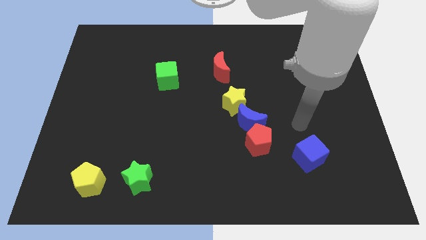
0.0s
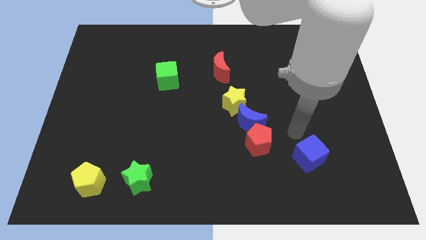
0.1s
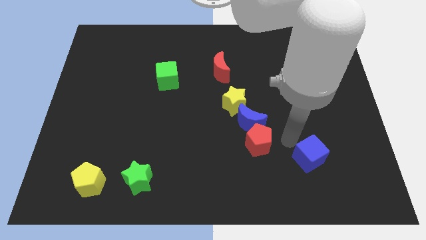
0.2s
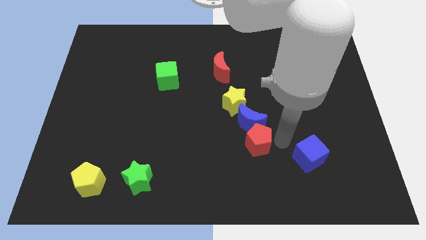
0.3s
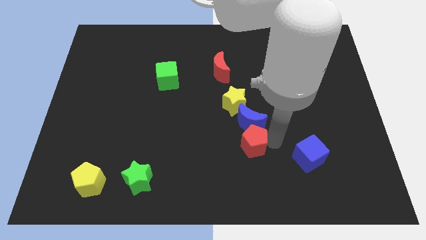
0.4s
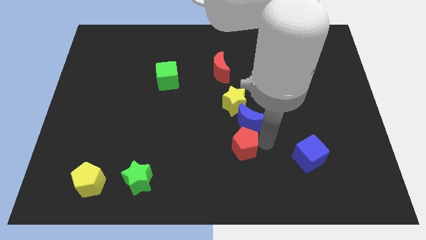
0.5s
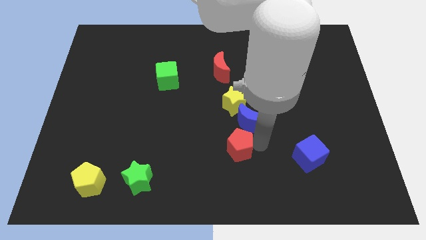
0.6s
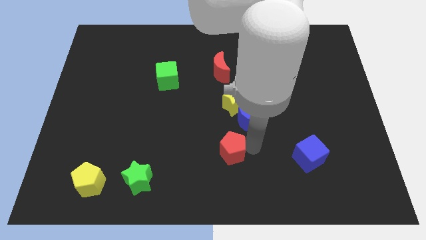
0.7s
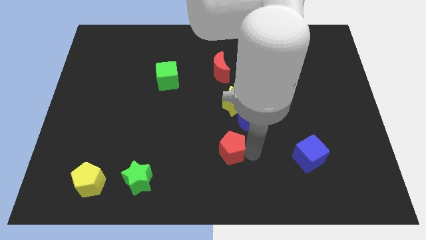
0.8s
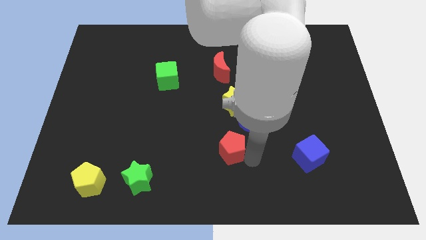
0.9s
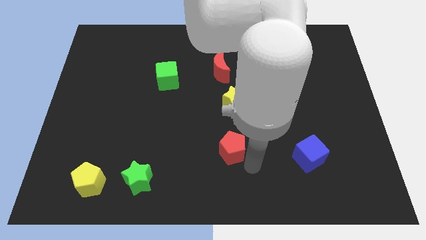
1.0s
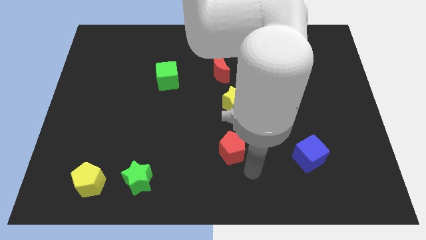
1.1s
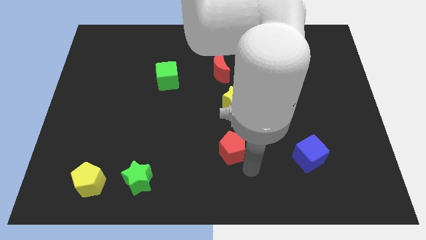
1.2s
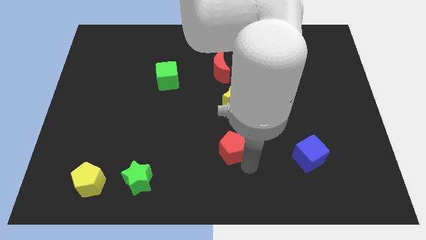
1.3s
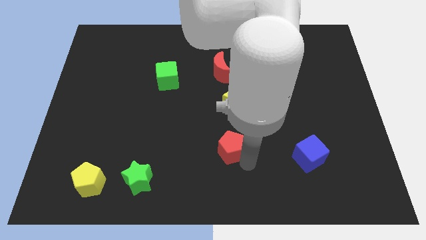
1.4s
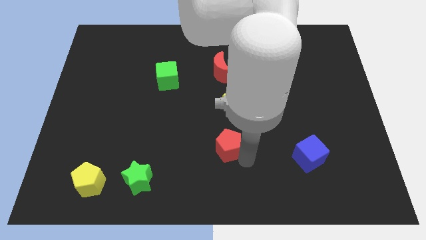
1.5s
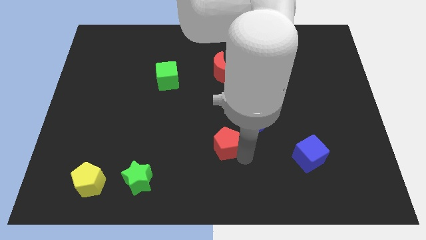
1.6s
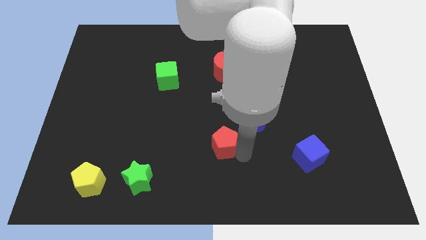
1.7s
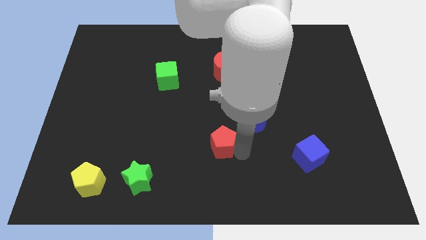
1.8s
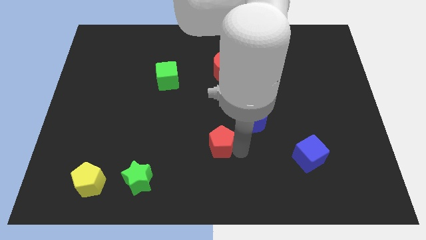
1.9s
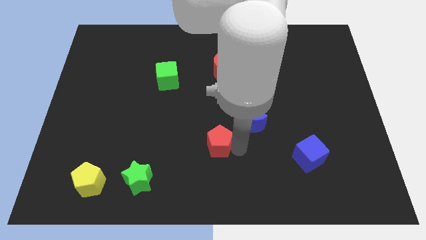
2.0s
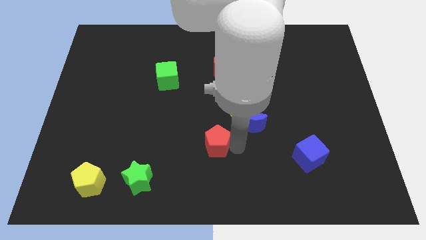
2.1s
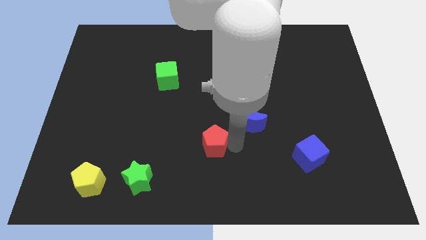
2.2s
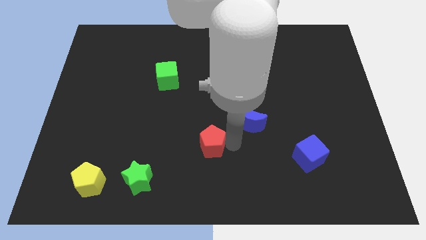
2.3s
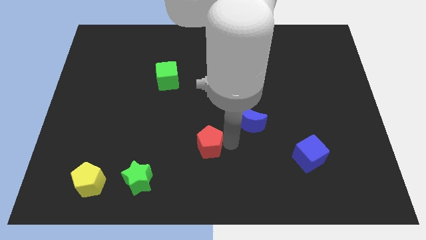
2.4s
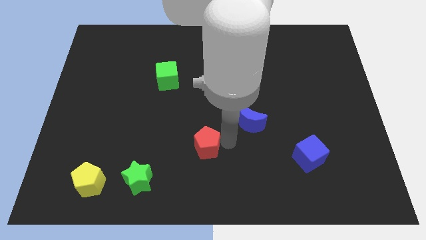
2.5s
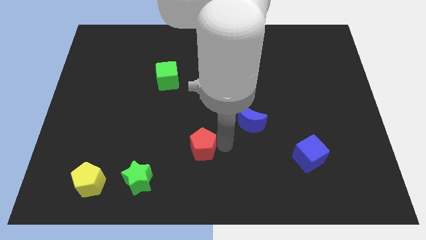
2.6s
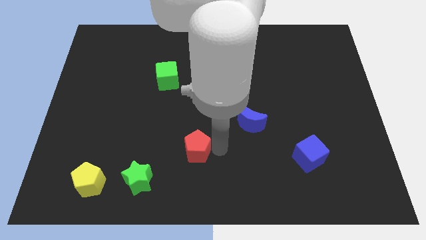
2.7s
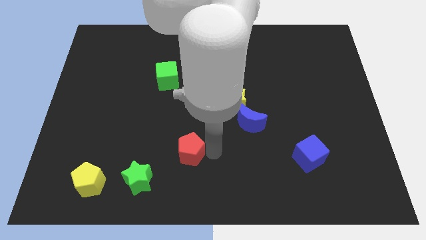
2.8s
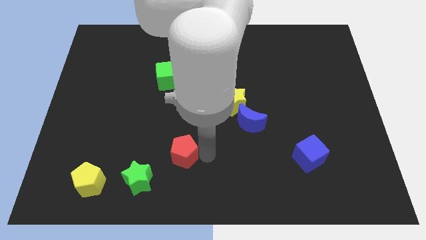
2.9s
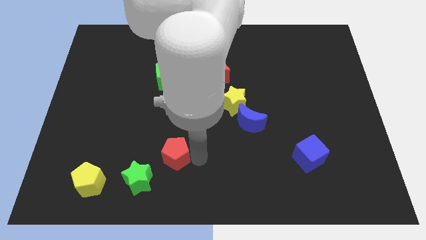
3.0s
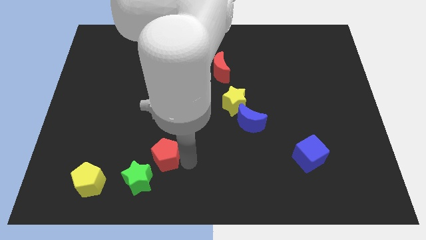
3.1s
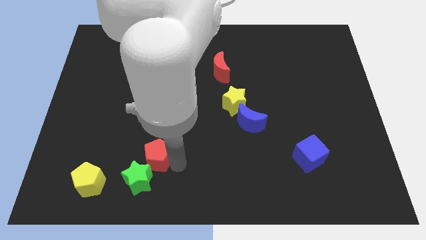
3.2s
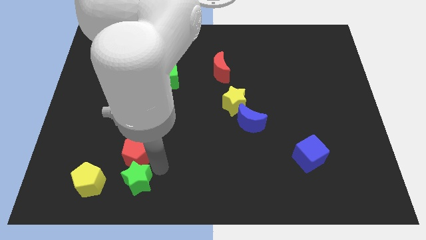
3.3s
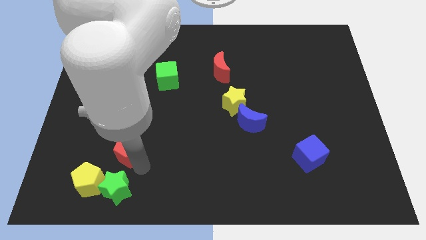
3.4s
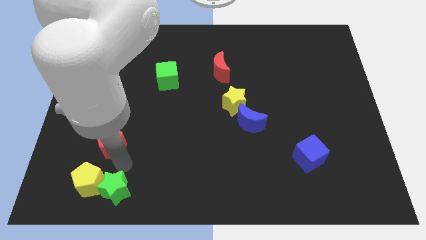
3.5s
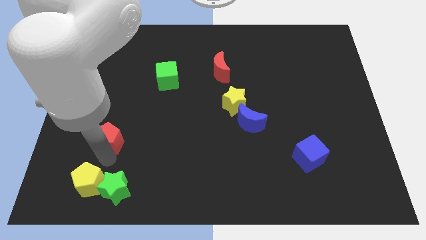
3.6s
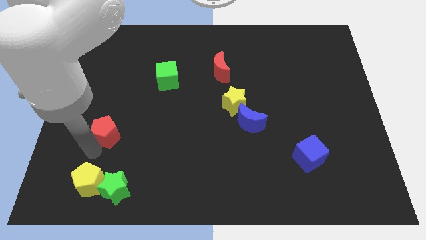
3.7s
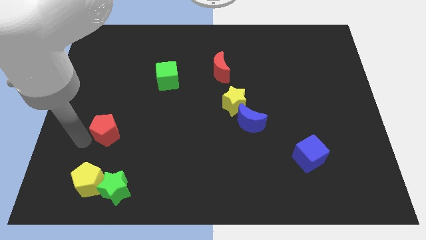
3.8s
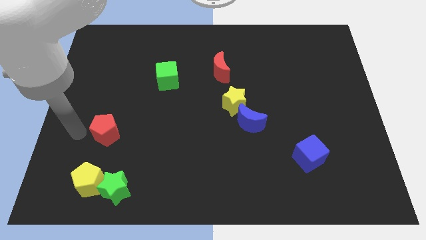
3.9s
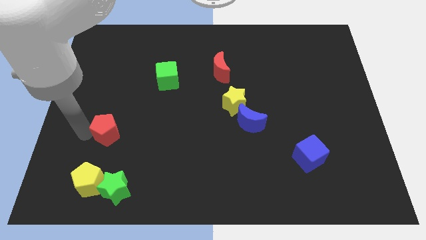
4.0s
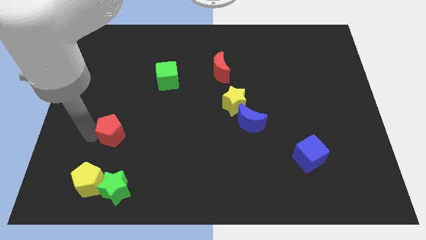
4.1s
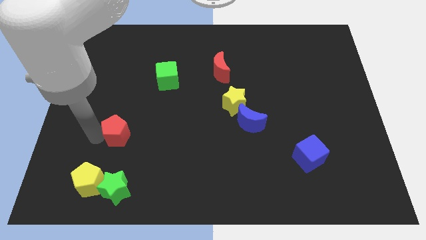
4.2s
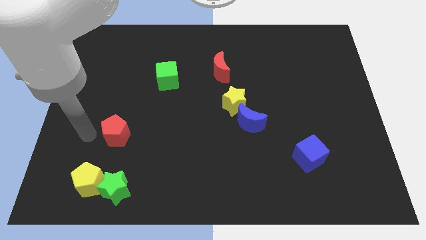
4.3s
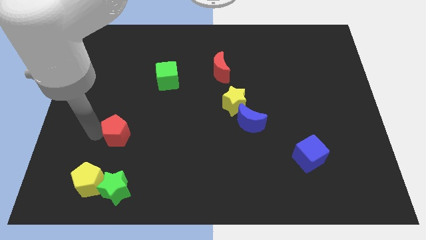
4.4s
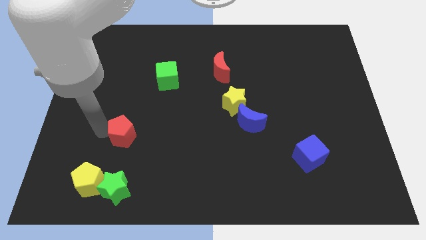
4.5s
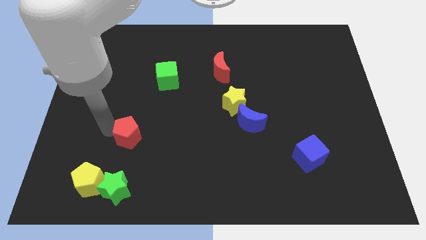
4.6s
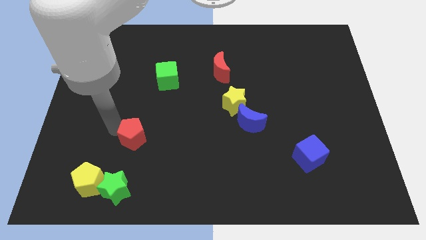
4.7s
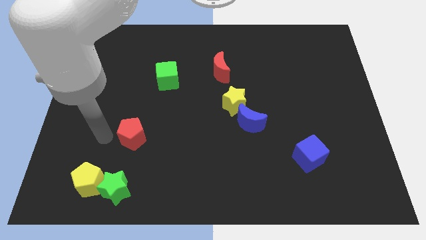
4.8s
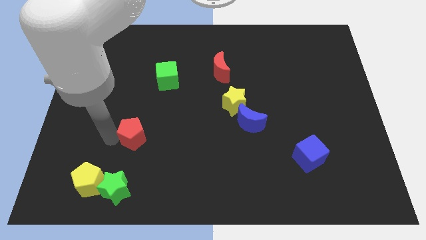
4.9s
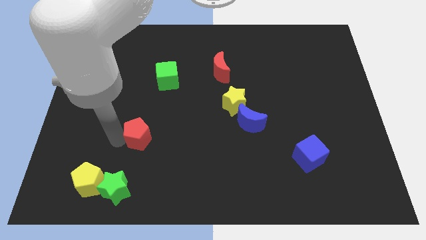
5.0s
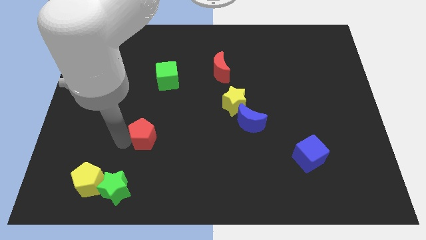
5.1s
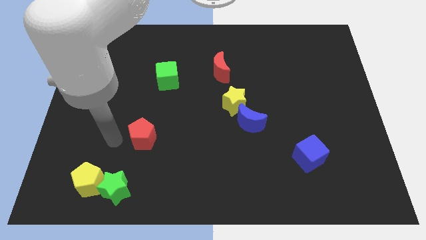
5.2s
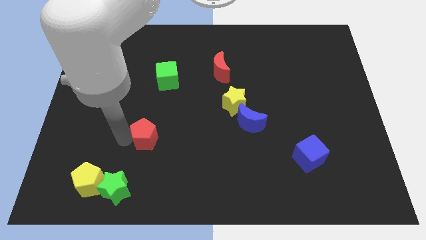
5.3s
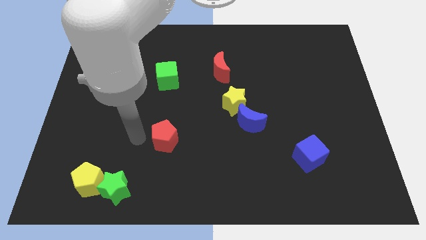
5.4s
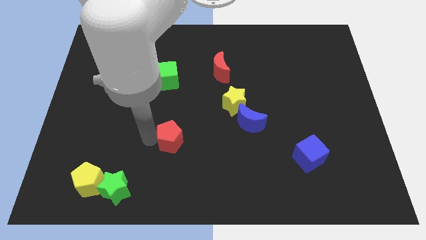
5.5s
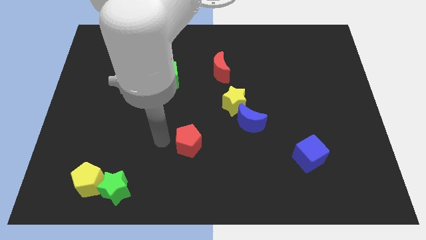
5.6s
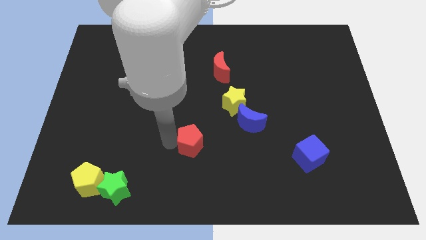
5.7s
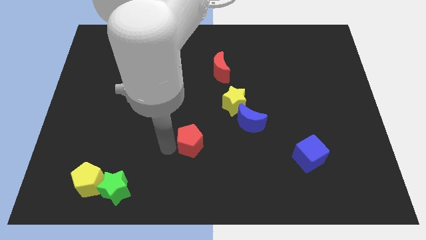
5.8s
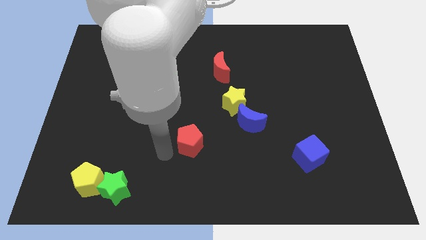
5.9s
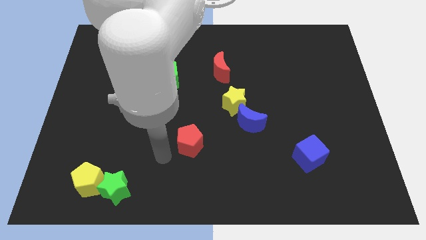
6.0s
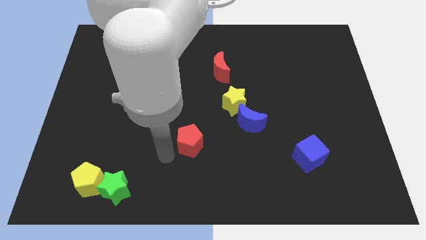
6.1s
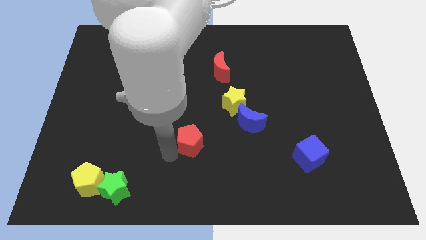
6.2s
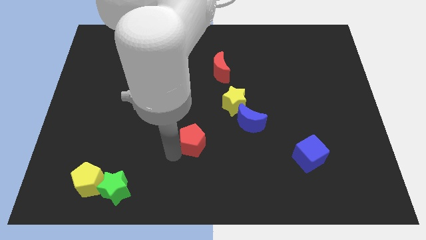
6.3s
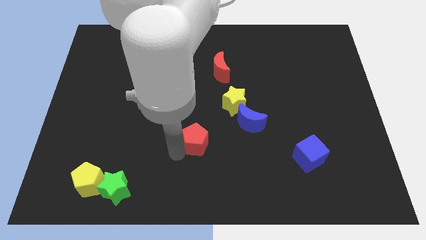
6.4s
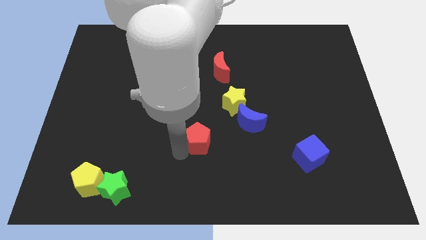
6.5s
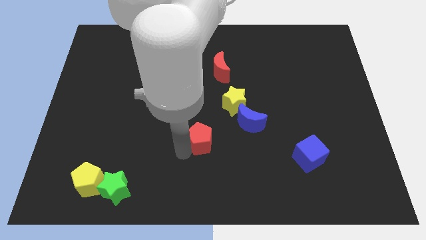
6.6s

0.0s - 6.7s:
move the red pentagon left of the blue moon
